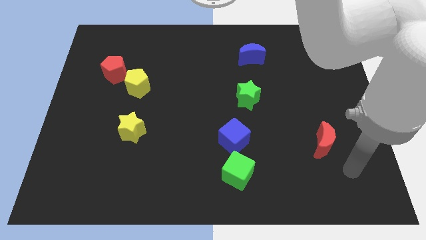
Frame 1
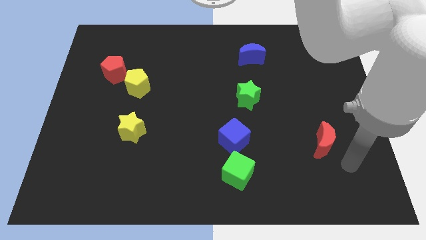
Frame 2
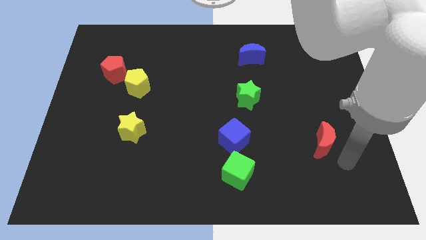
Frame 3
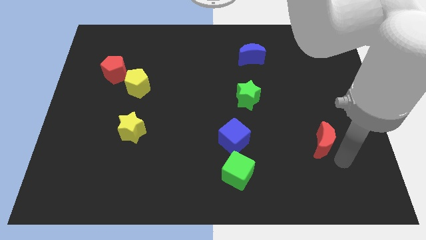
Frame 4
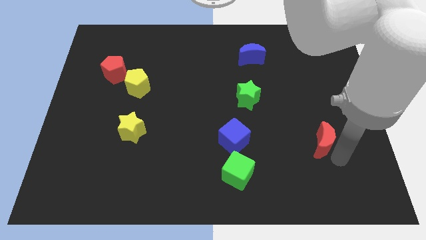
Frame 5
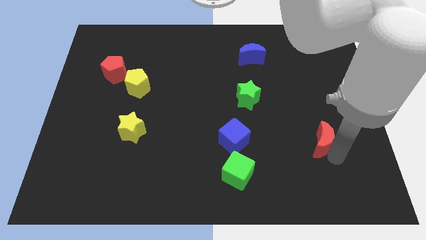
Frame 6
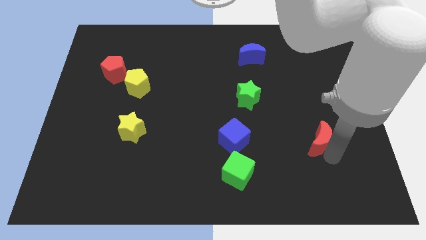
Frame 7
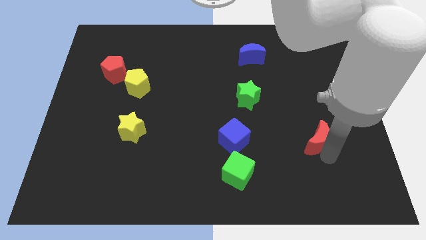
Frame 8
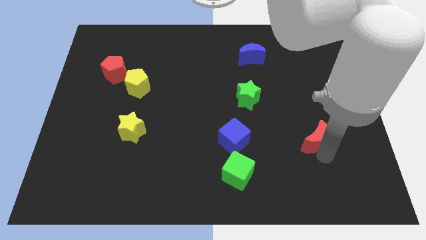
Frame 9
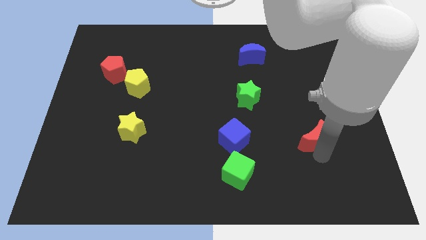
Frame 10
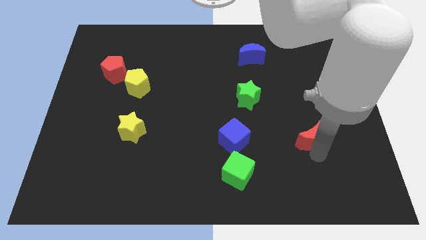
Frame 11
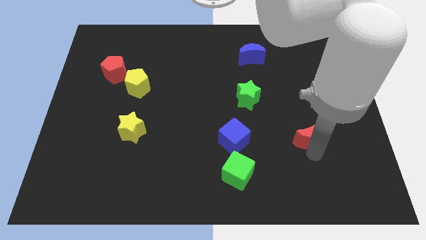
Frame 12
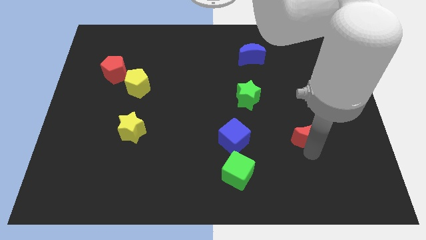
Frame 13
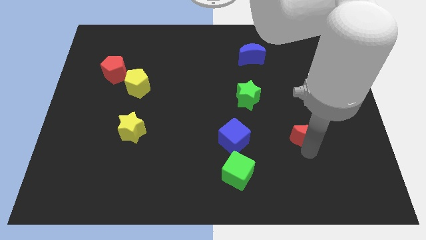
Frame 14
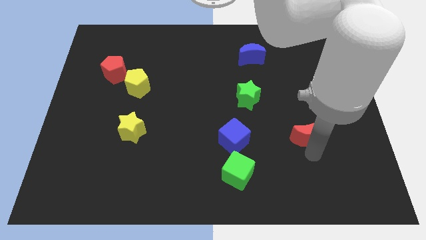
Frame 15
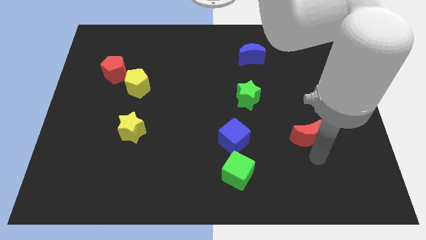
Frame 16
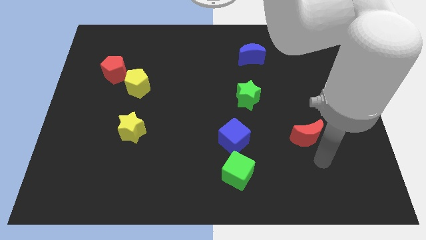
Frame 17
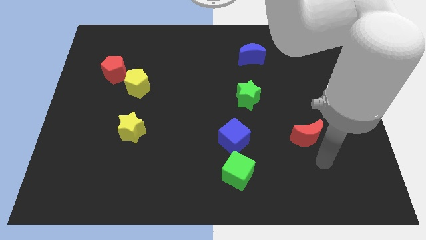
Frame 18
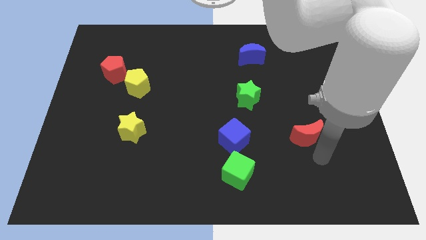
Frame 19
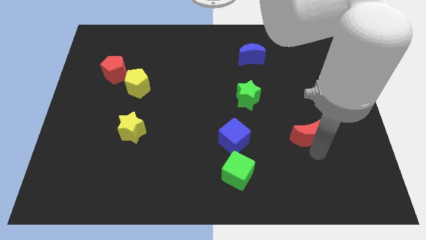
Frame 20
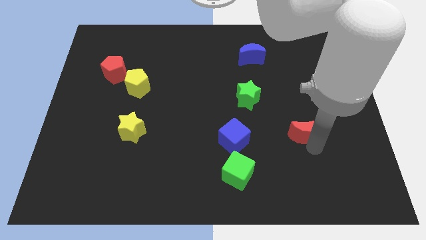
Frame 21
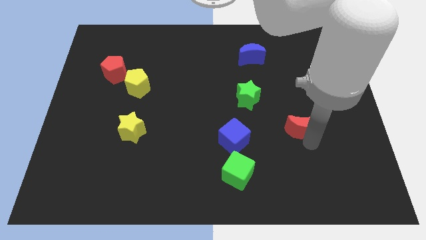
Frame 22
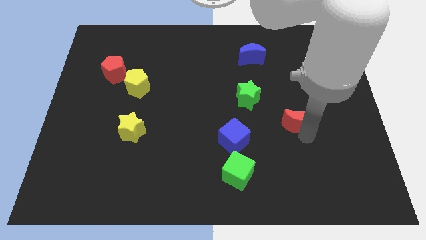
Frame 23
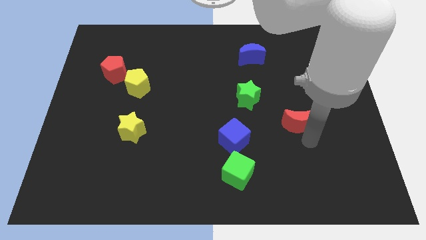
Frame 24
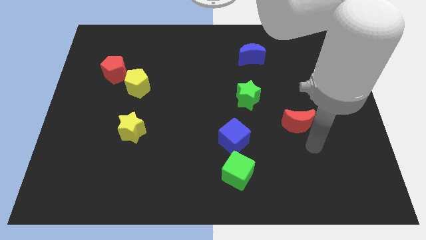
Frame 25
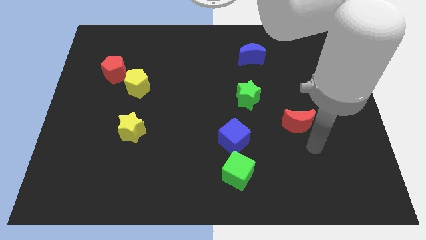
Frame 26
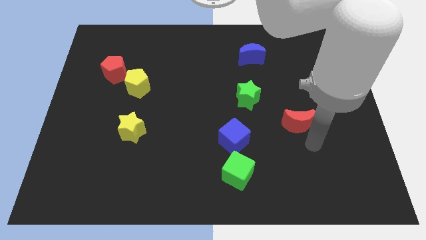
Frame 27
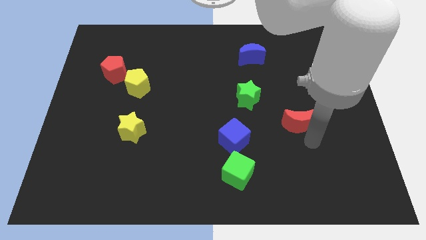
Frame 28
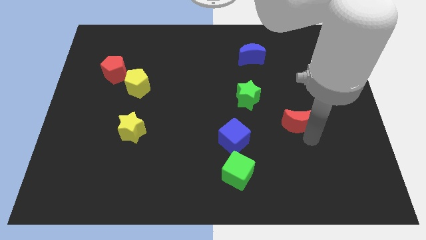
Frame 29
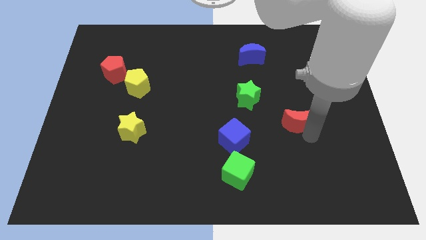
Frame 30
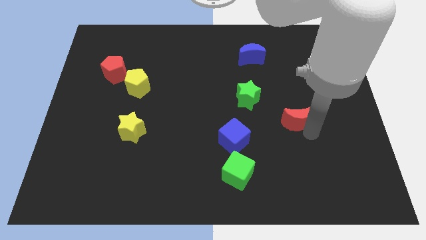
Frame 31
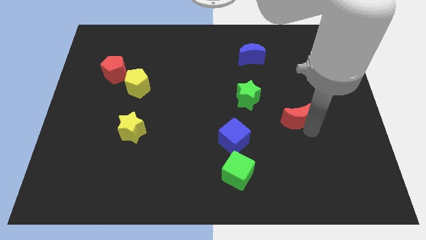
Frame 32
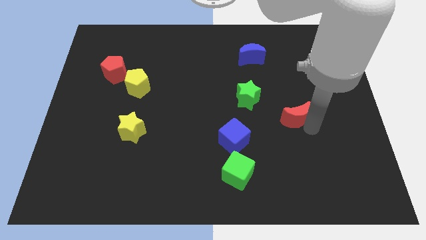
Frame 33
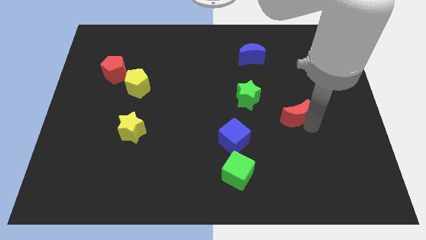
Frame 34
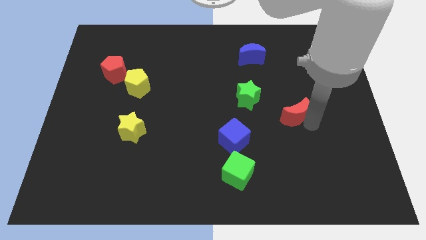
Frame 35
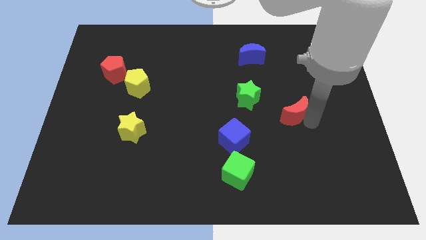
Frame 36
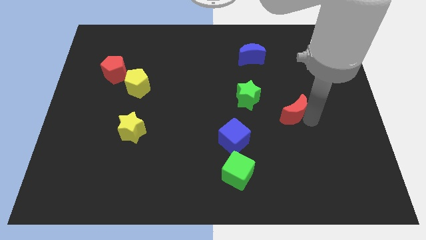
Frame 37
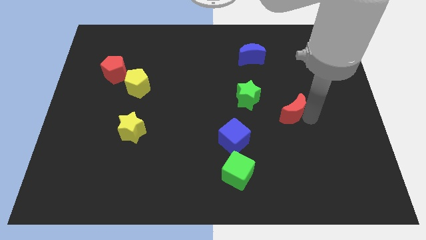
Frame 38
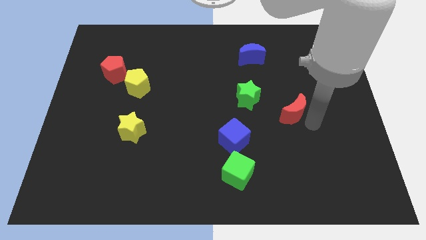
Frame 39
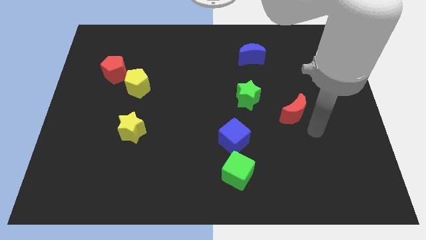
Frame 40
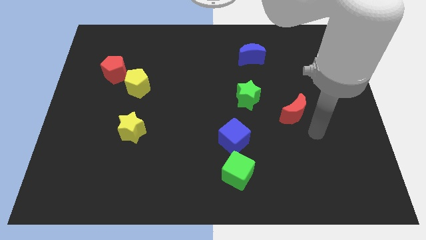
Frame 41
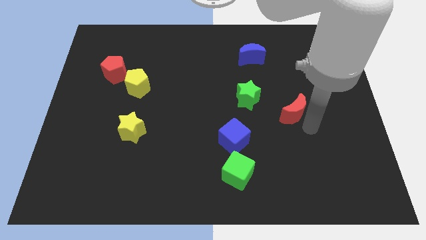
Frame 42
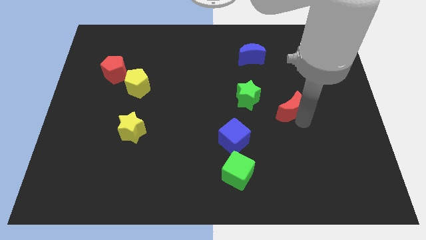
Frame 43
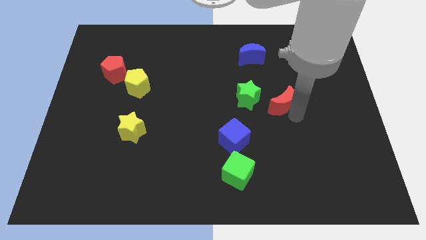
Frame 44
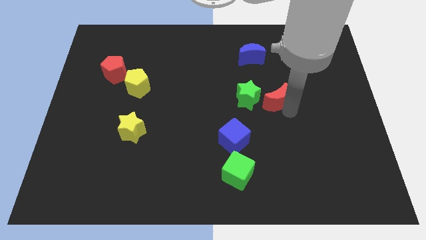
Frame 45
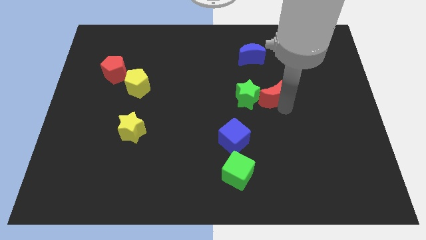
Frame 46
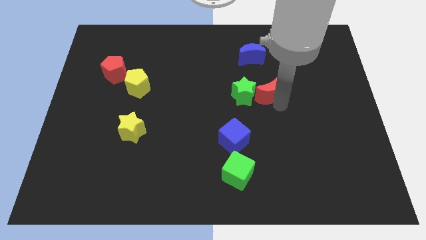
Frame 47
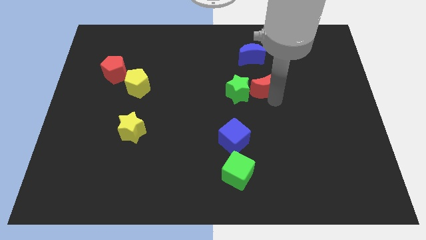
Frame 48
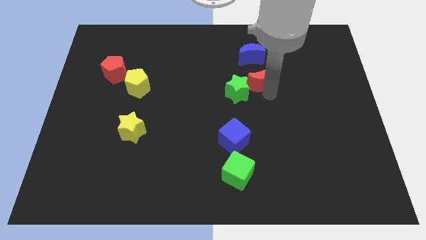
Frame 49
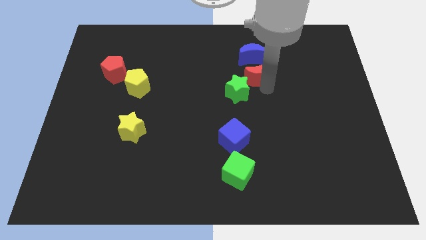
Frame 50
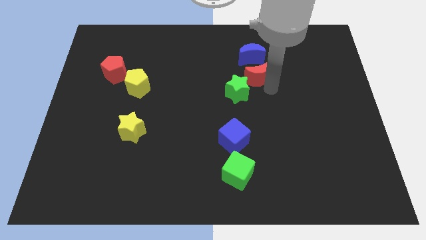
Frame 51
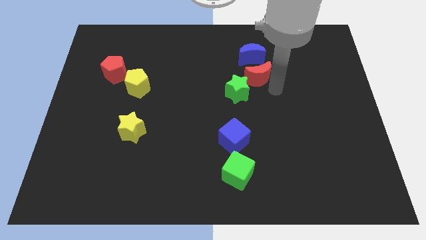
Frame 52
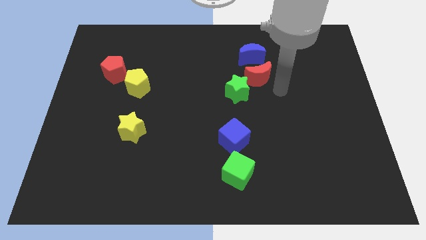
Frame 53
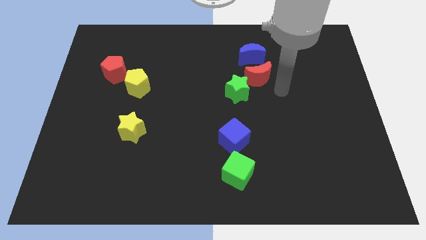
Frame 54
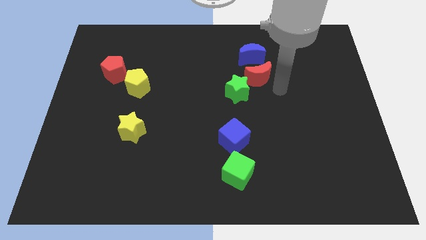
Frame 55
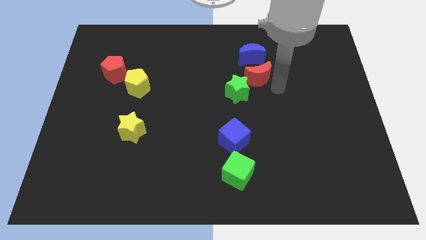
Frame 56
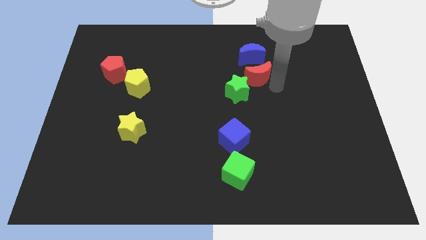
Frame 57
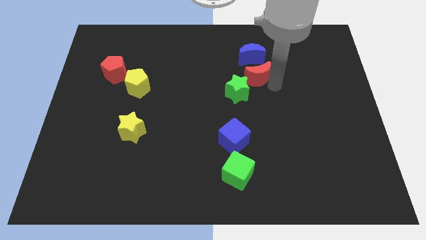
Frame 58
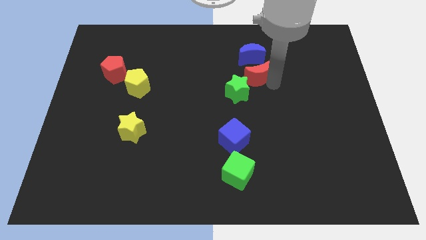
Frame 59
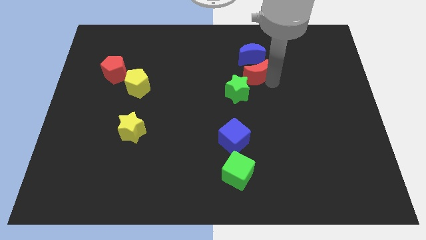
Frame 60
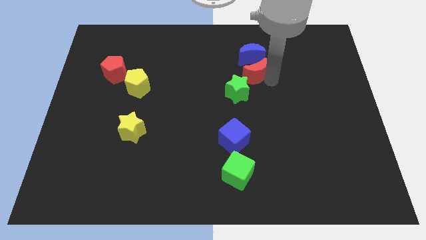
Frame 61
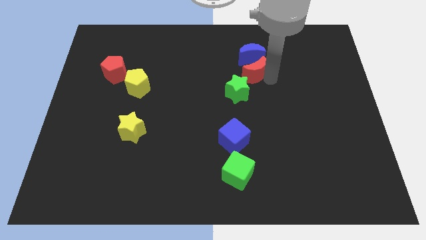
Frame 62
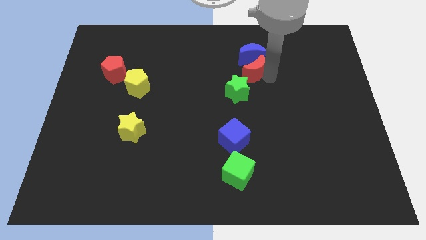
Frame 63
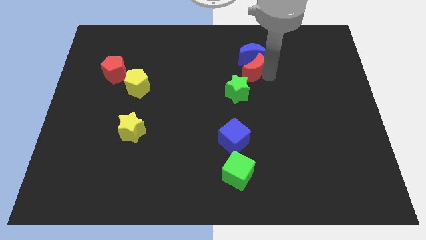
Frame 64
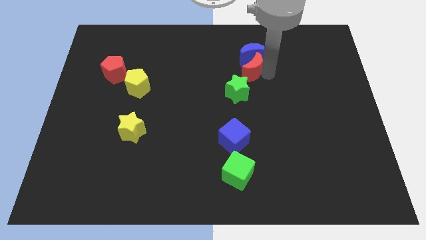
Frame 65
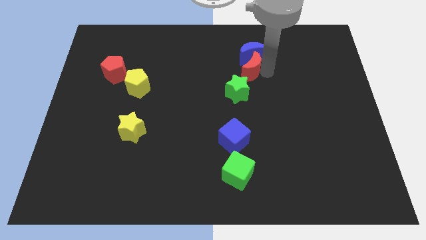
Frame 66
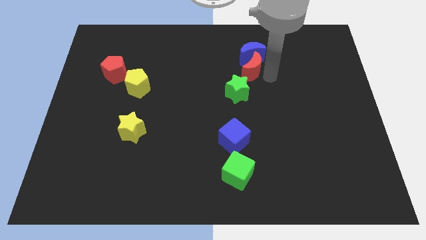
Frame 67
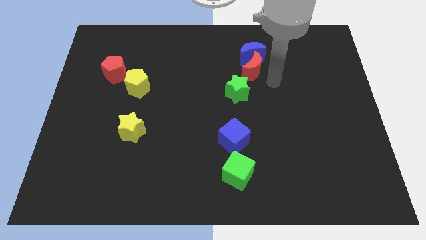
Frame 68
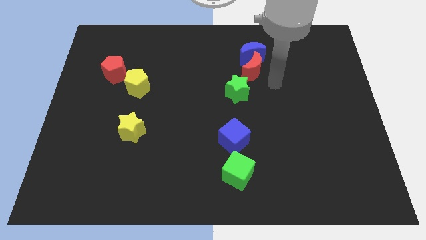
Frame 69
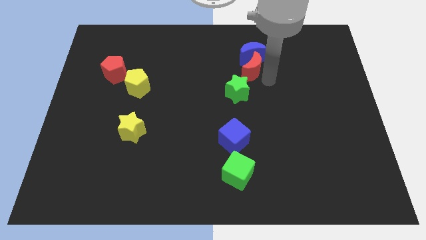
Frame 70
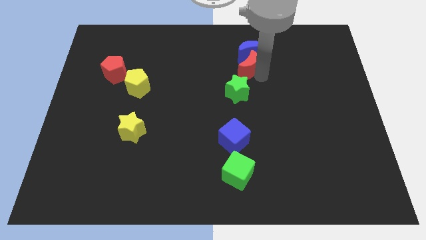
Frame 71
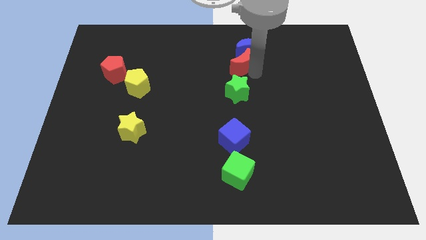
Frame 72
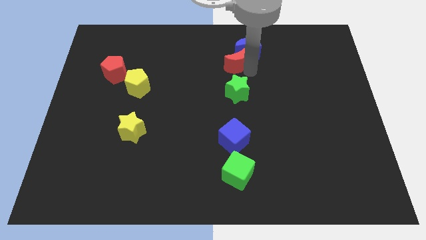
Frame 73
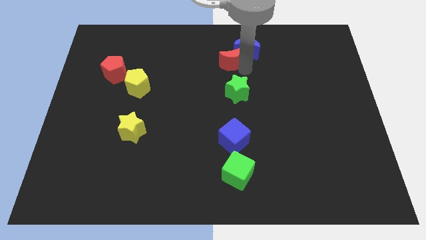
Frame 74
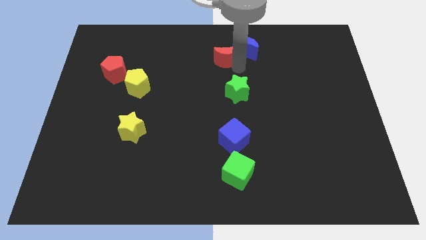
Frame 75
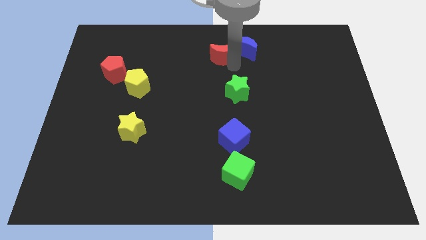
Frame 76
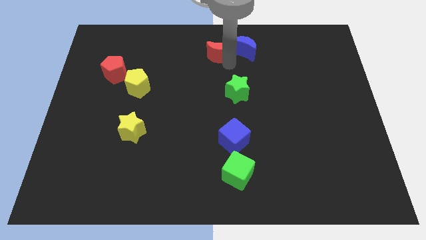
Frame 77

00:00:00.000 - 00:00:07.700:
slide the red moon to the top
